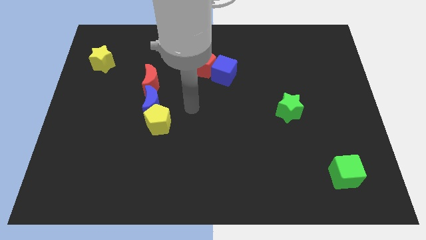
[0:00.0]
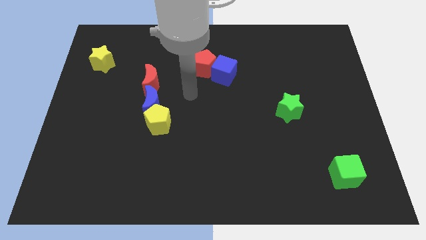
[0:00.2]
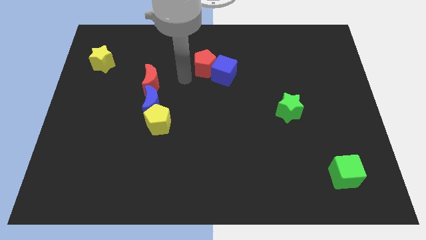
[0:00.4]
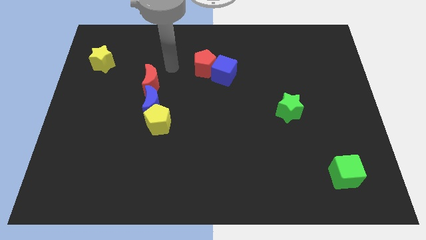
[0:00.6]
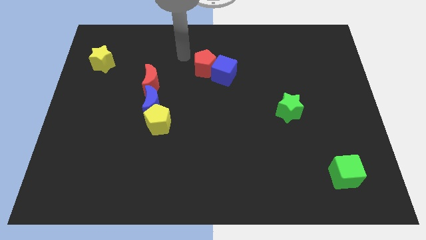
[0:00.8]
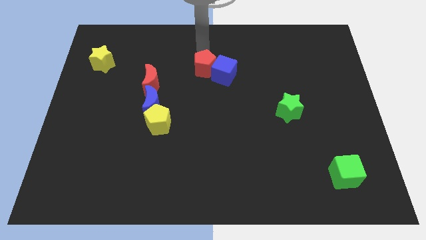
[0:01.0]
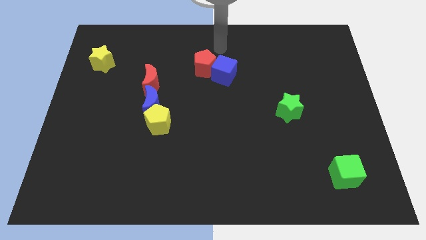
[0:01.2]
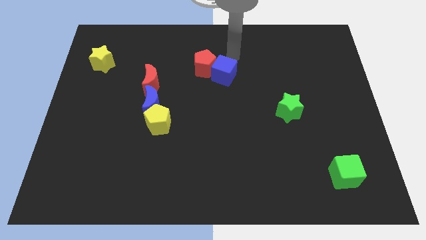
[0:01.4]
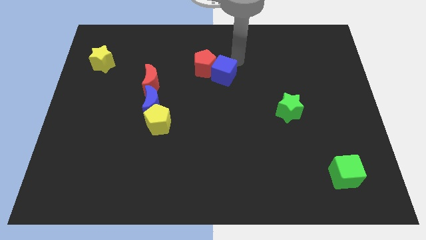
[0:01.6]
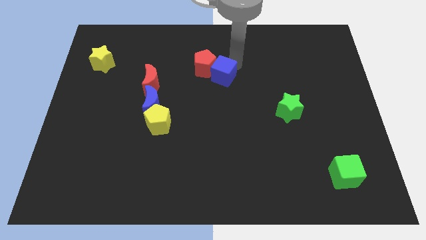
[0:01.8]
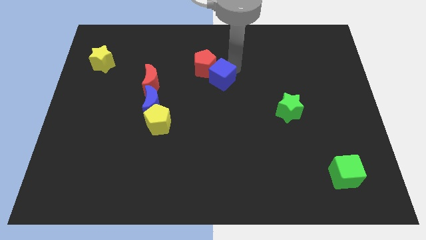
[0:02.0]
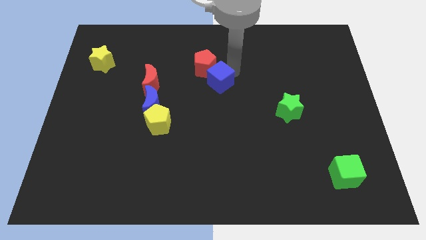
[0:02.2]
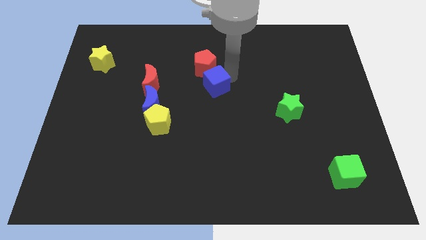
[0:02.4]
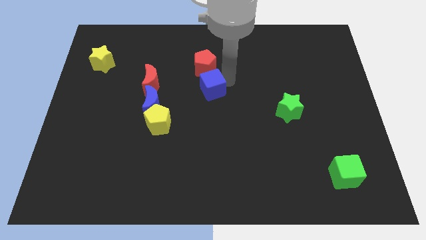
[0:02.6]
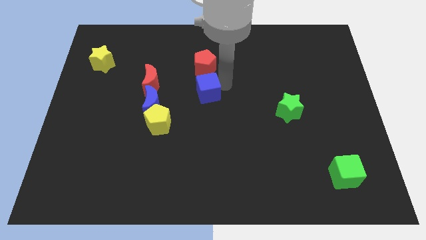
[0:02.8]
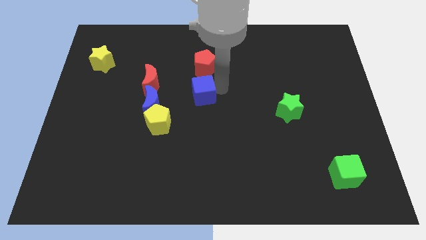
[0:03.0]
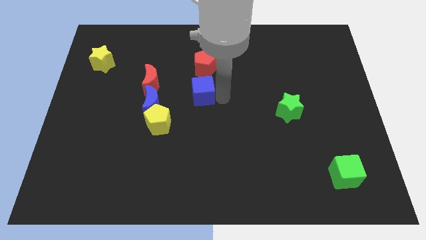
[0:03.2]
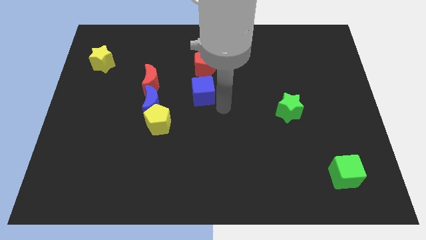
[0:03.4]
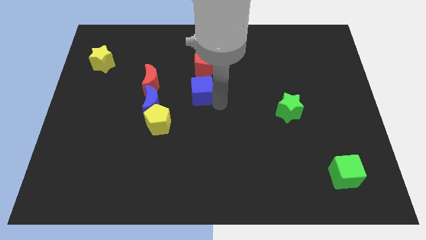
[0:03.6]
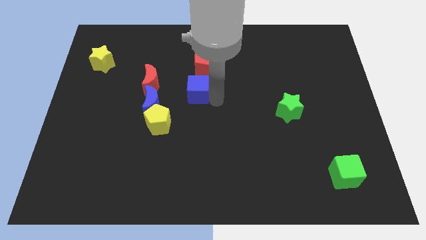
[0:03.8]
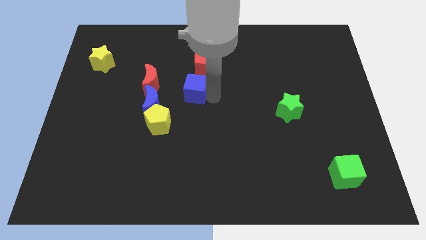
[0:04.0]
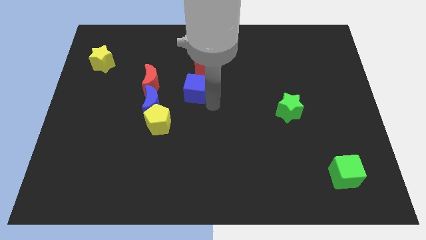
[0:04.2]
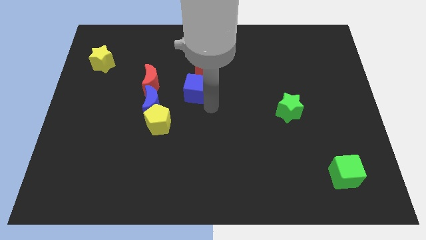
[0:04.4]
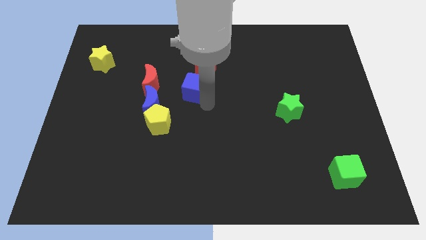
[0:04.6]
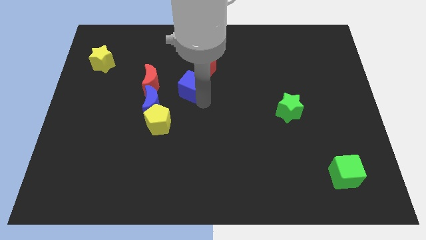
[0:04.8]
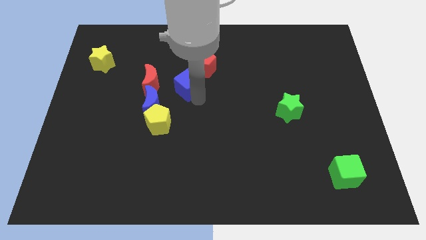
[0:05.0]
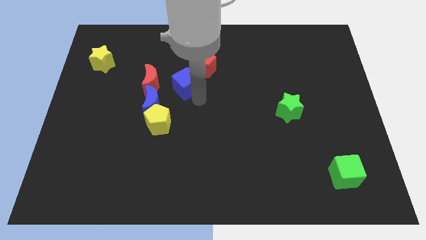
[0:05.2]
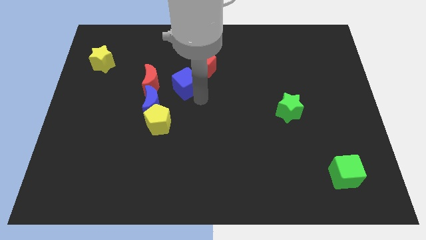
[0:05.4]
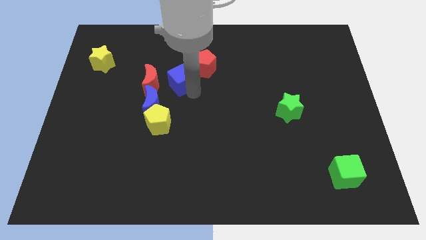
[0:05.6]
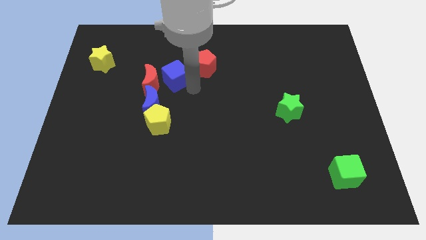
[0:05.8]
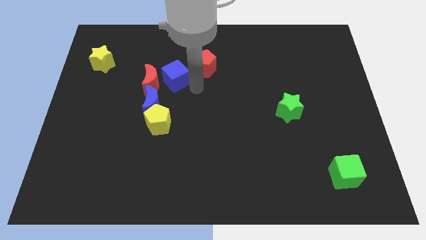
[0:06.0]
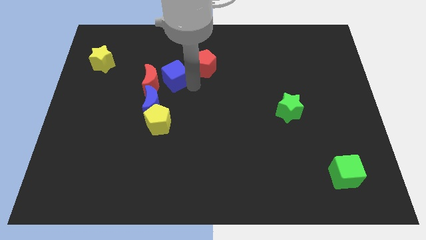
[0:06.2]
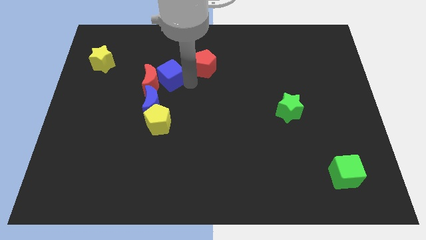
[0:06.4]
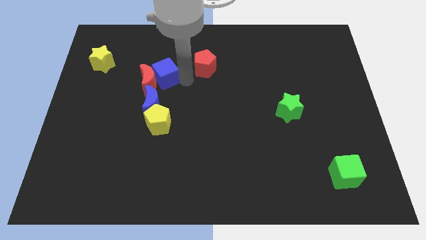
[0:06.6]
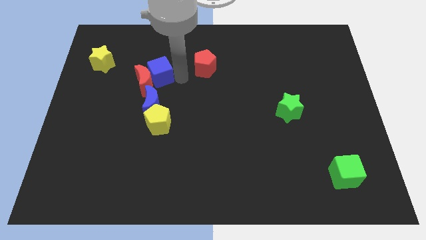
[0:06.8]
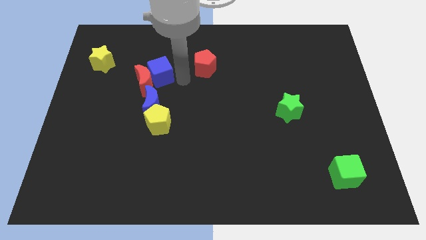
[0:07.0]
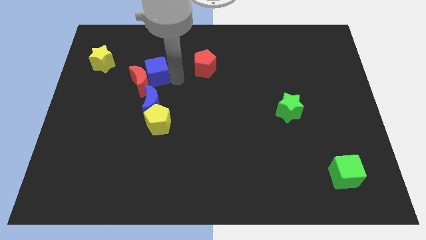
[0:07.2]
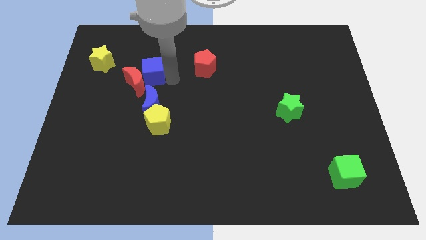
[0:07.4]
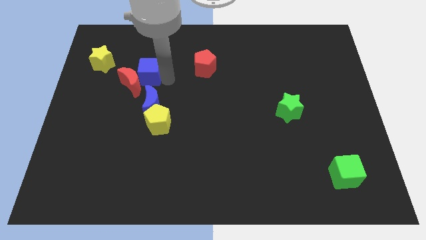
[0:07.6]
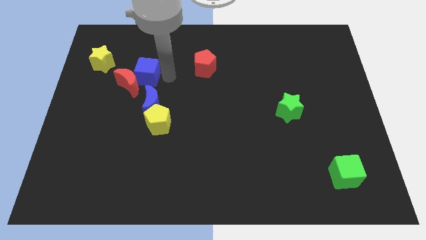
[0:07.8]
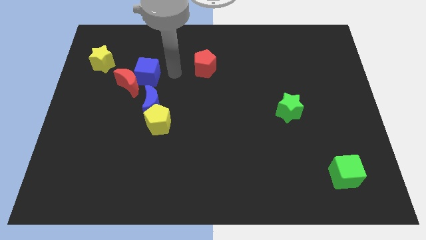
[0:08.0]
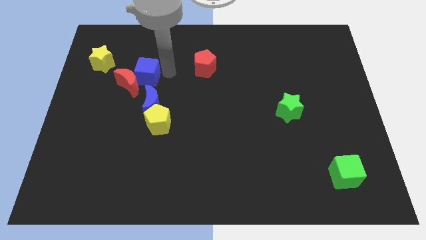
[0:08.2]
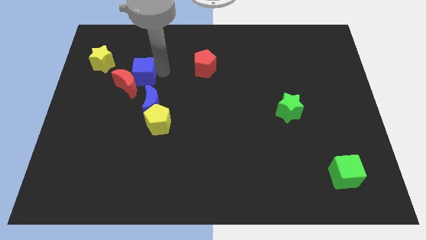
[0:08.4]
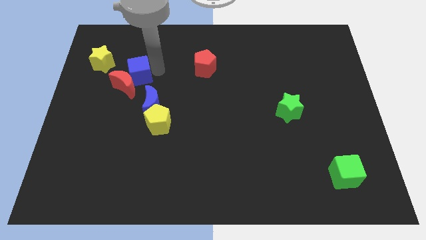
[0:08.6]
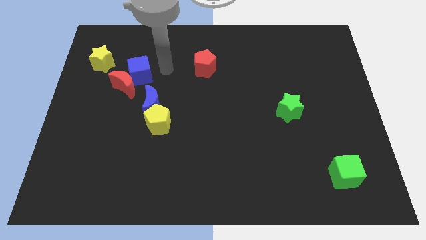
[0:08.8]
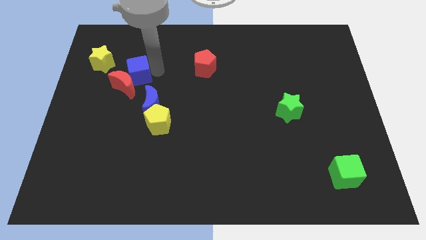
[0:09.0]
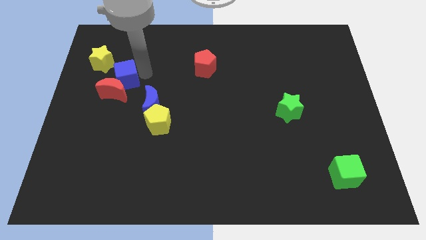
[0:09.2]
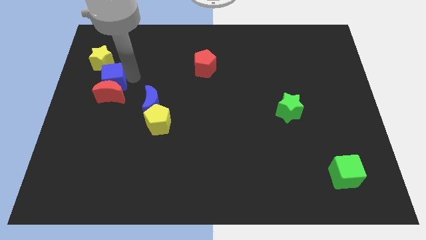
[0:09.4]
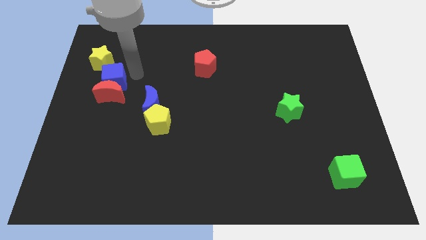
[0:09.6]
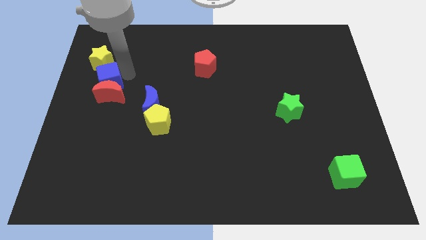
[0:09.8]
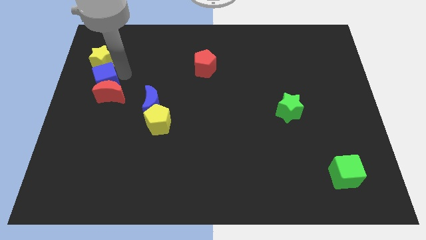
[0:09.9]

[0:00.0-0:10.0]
push the blue cube to the left side of the board

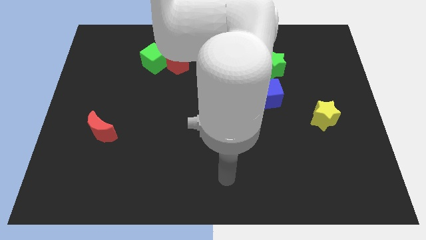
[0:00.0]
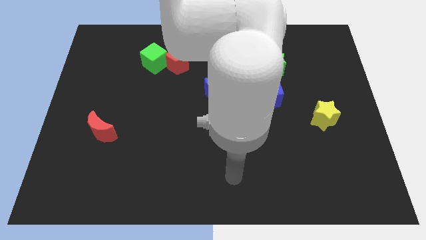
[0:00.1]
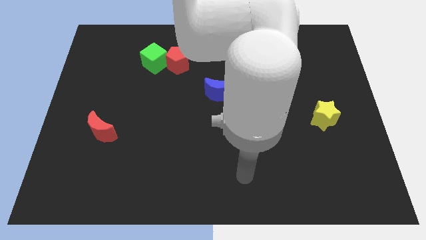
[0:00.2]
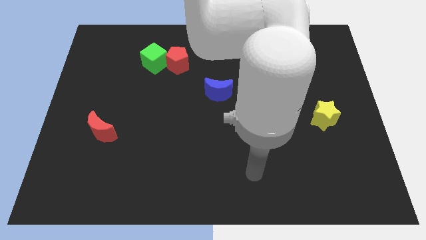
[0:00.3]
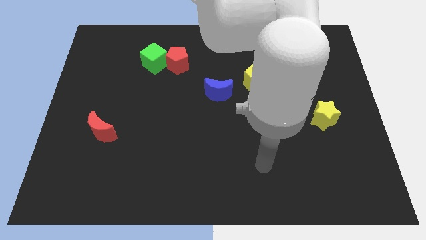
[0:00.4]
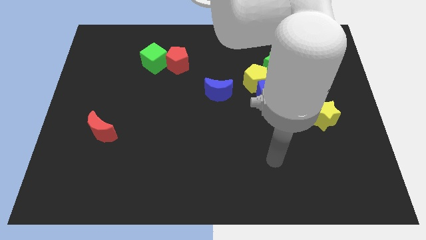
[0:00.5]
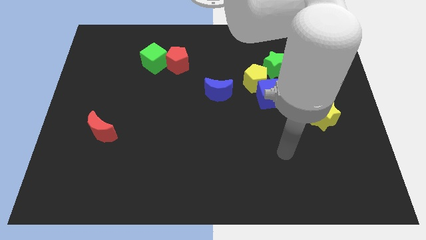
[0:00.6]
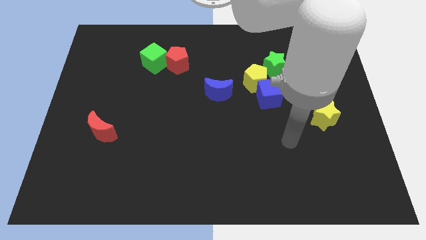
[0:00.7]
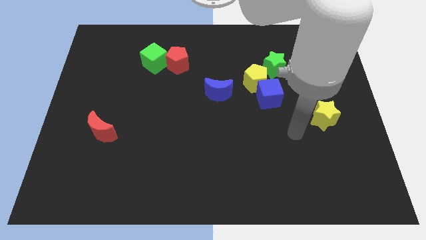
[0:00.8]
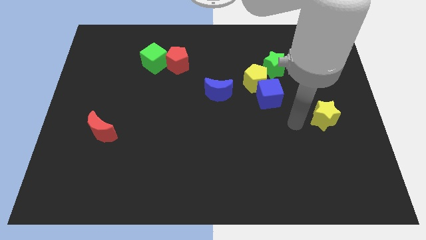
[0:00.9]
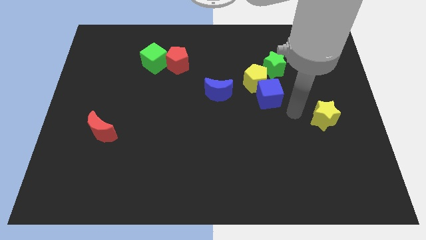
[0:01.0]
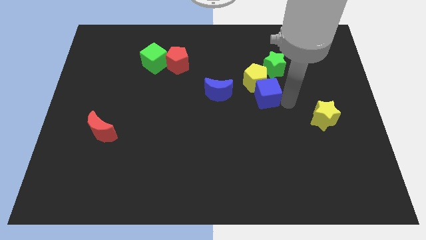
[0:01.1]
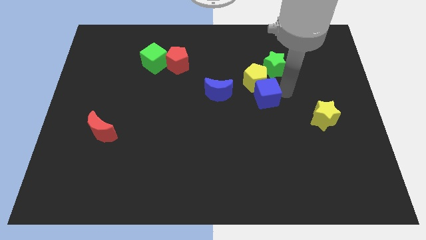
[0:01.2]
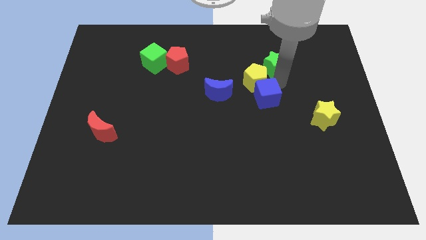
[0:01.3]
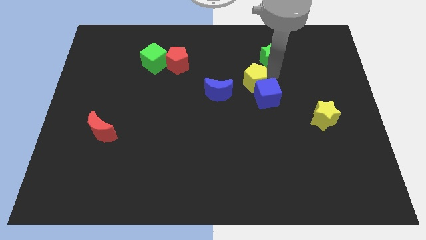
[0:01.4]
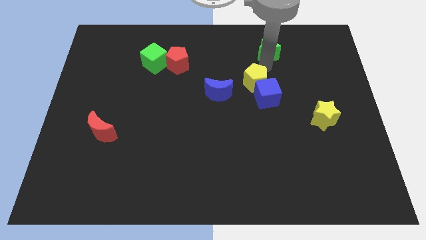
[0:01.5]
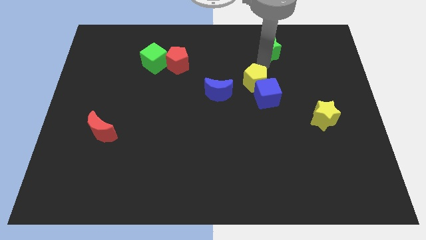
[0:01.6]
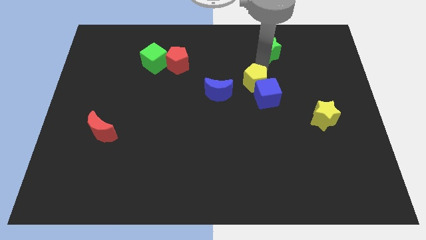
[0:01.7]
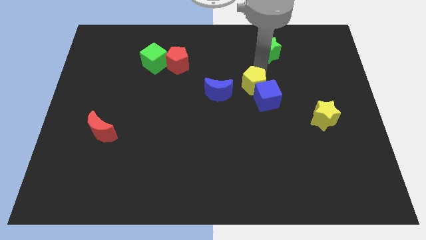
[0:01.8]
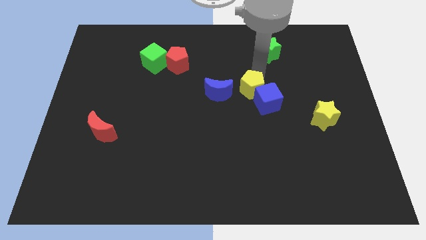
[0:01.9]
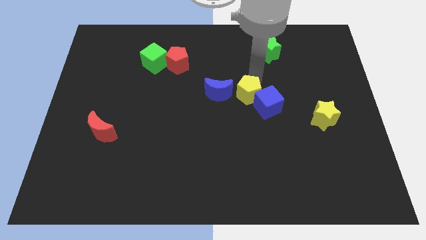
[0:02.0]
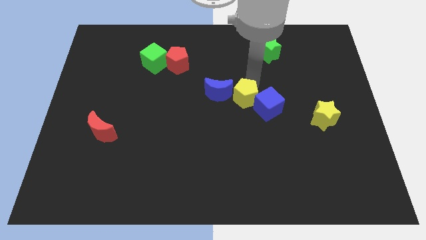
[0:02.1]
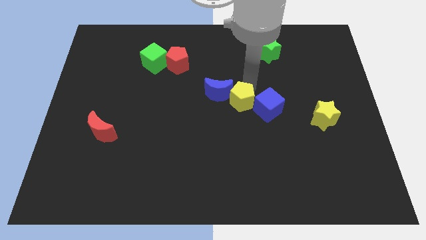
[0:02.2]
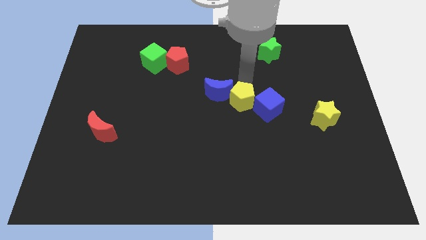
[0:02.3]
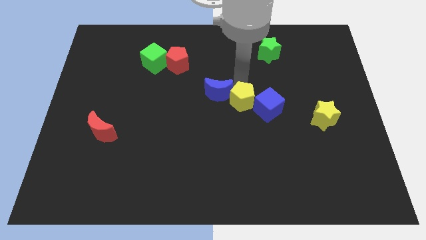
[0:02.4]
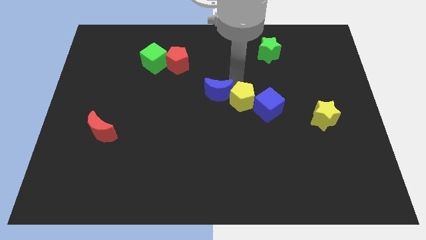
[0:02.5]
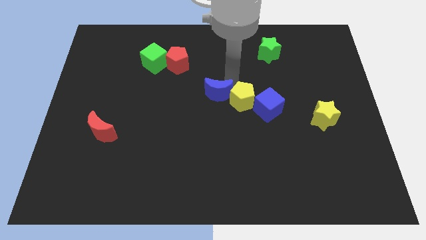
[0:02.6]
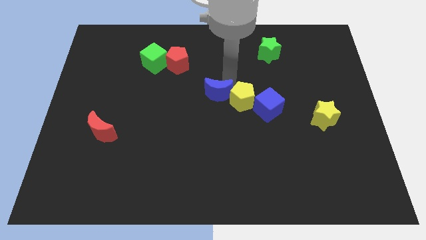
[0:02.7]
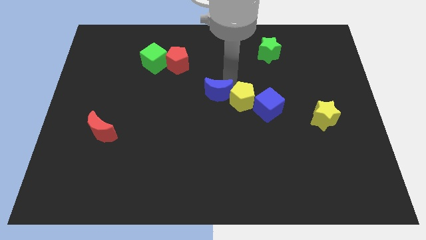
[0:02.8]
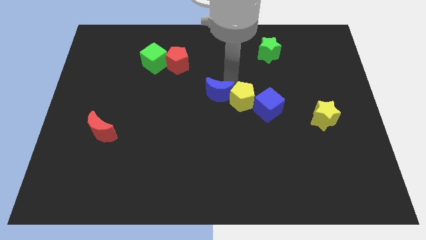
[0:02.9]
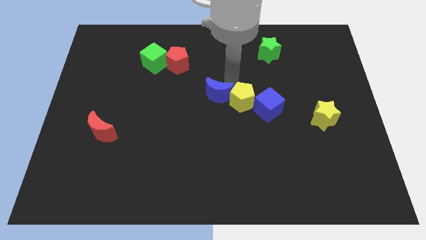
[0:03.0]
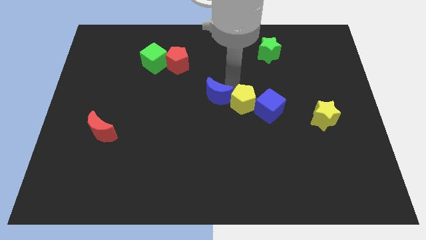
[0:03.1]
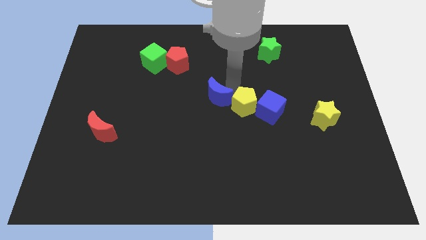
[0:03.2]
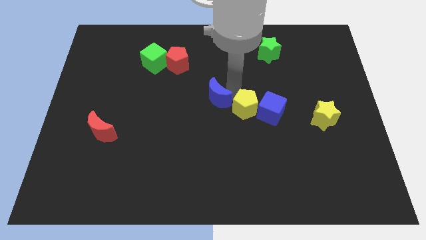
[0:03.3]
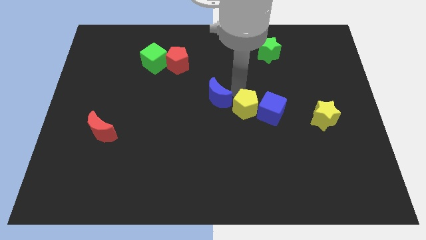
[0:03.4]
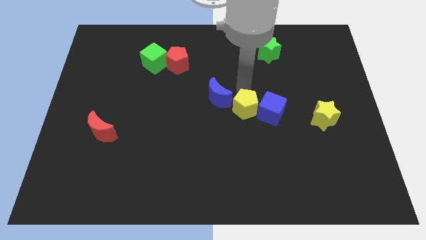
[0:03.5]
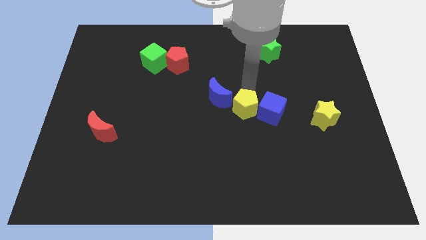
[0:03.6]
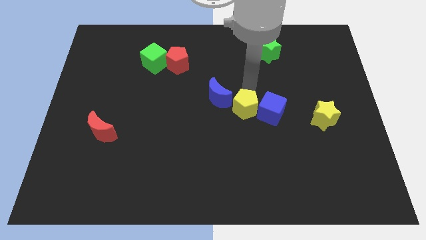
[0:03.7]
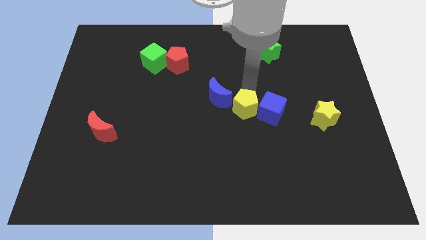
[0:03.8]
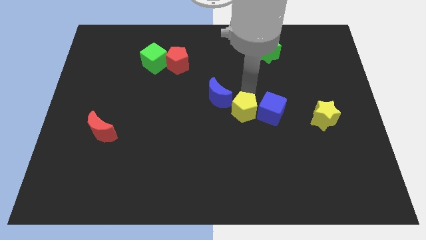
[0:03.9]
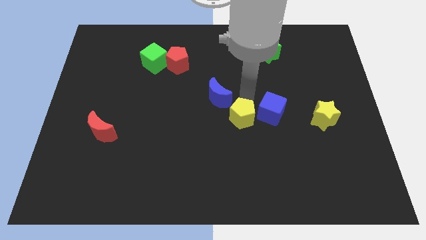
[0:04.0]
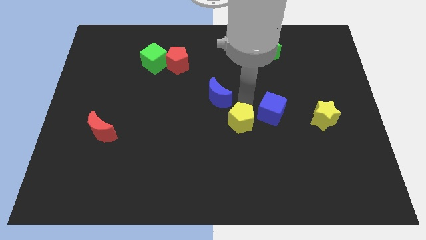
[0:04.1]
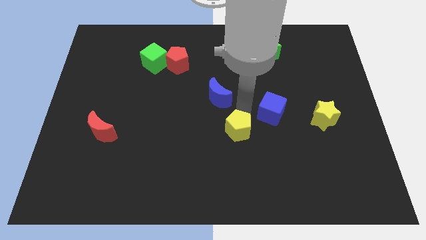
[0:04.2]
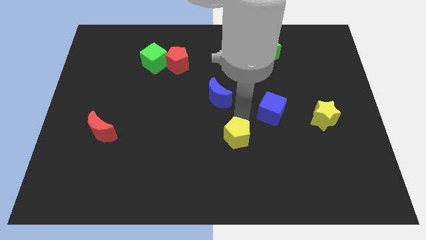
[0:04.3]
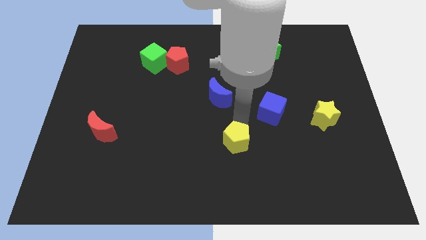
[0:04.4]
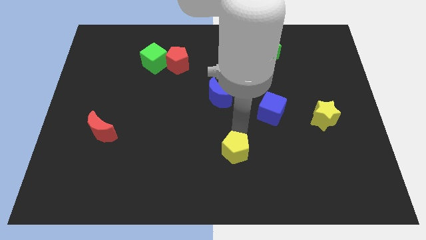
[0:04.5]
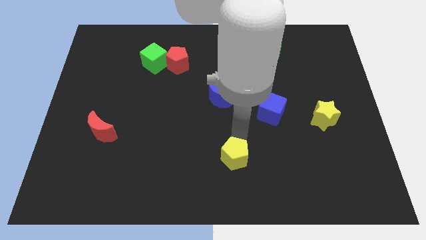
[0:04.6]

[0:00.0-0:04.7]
push the yellow pentagon to the bottom
